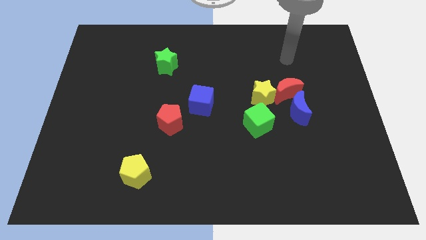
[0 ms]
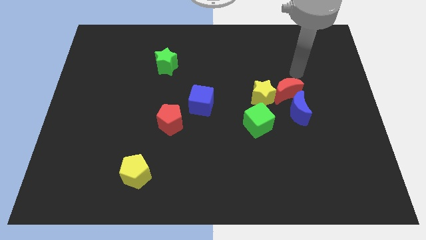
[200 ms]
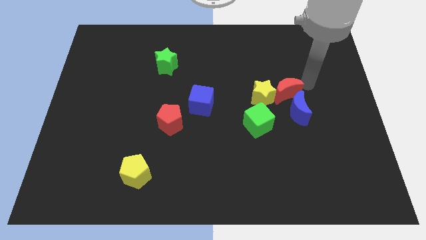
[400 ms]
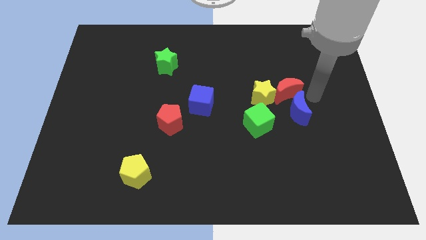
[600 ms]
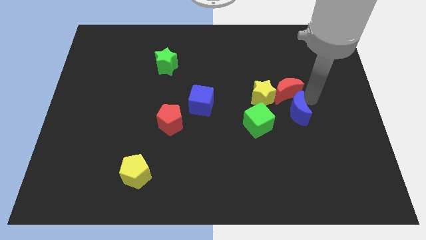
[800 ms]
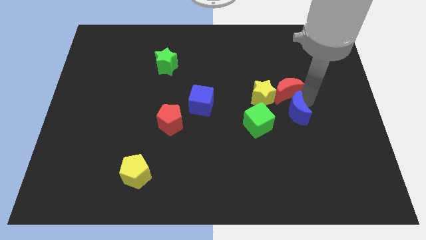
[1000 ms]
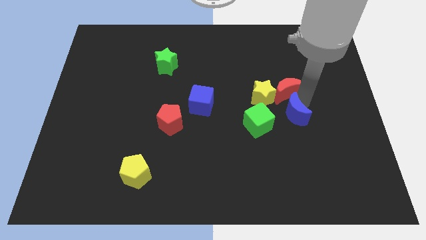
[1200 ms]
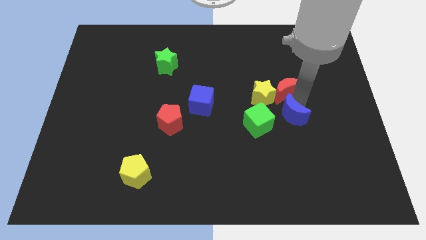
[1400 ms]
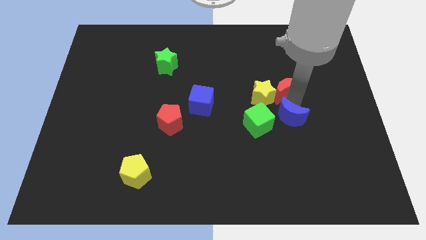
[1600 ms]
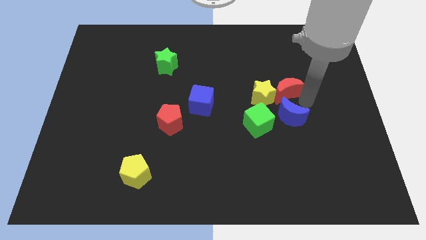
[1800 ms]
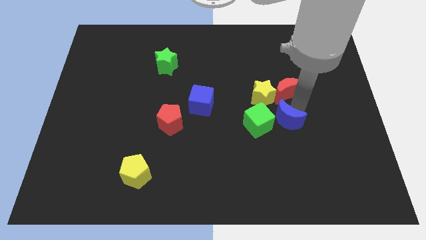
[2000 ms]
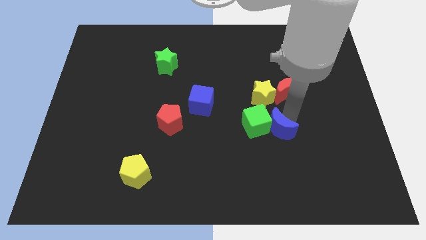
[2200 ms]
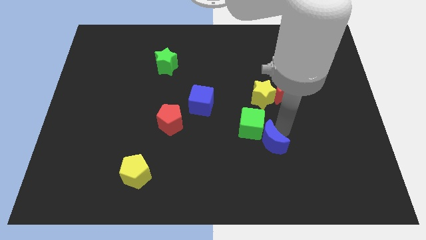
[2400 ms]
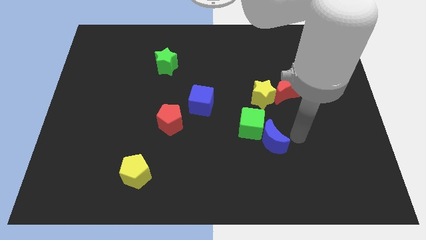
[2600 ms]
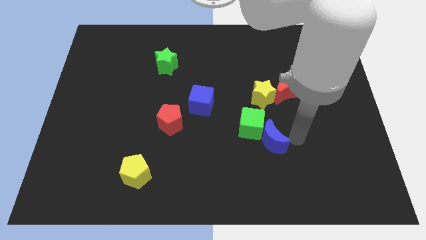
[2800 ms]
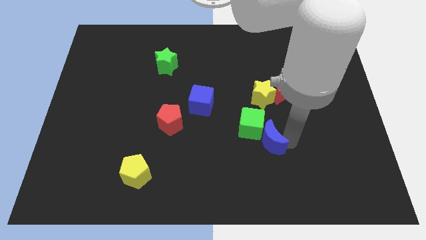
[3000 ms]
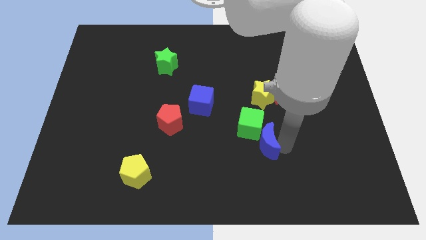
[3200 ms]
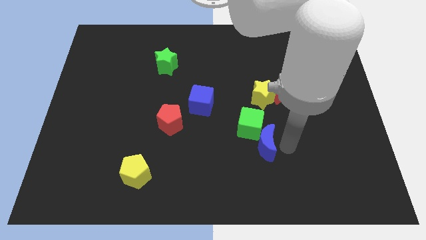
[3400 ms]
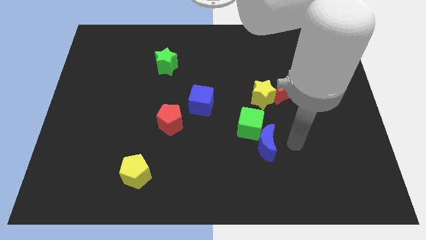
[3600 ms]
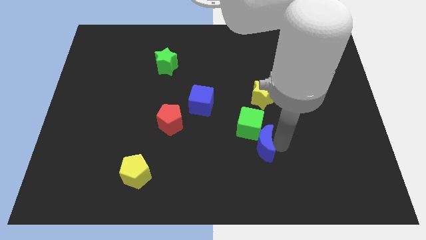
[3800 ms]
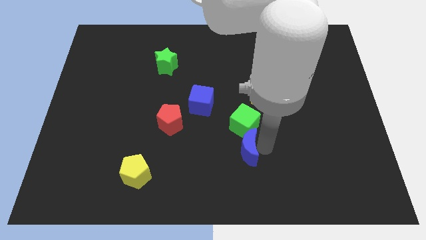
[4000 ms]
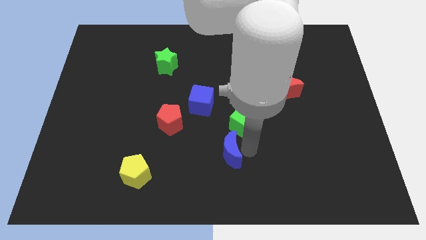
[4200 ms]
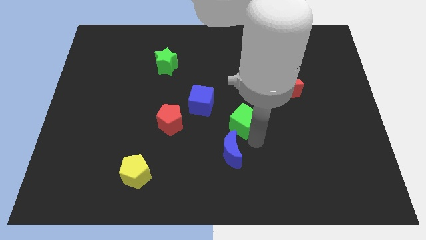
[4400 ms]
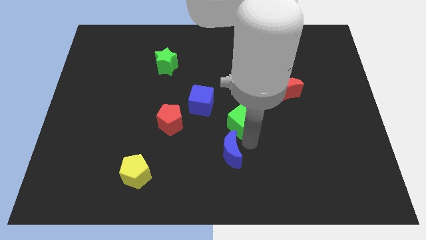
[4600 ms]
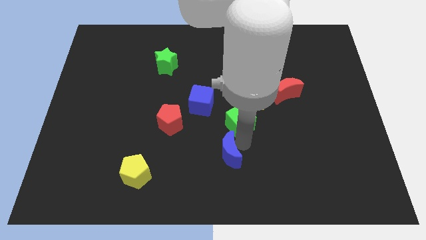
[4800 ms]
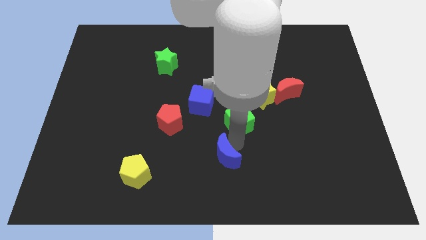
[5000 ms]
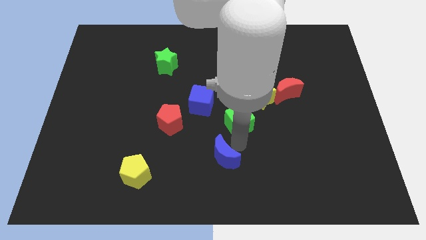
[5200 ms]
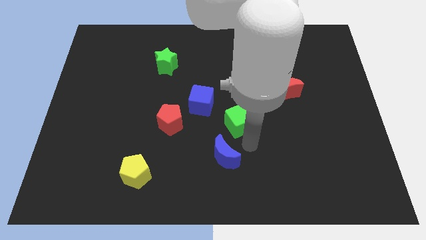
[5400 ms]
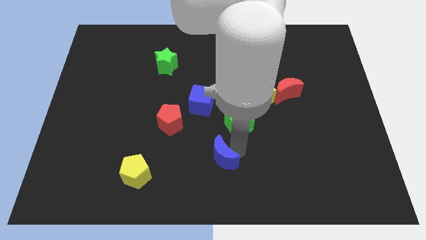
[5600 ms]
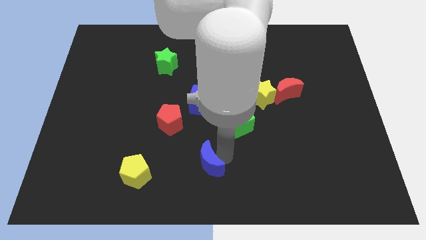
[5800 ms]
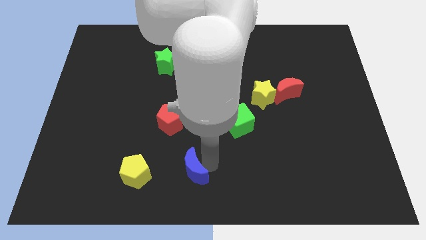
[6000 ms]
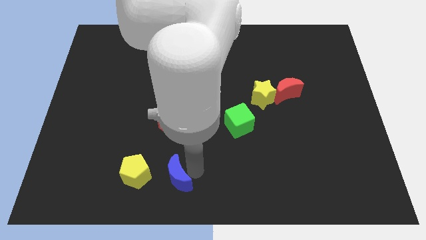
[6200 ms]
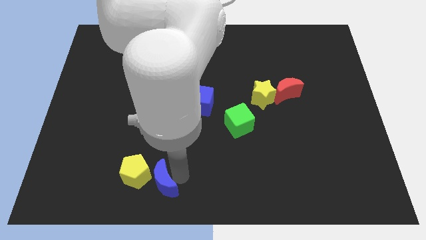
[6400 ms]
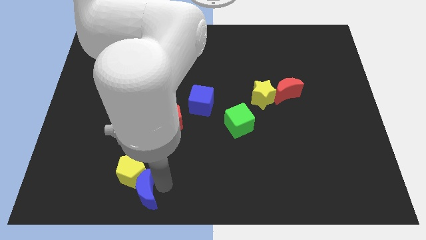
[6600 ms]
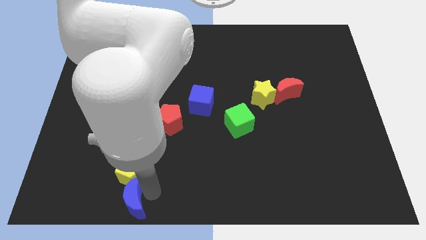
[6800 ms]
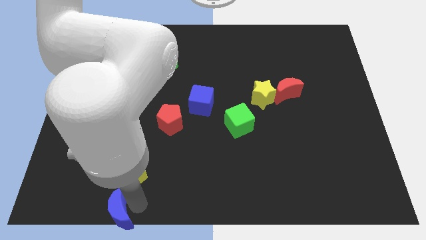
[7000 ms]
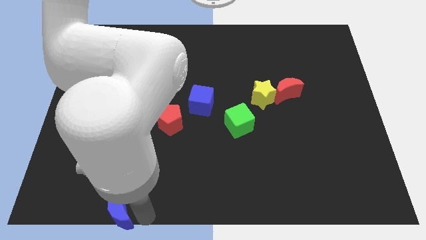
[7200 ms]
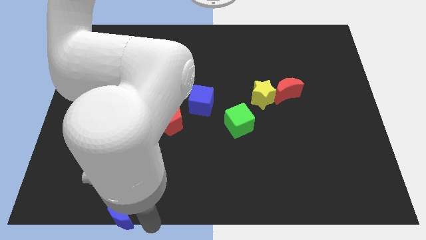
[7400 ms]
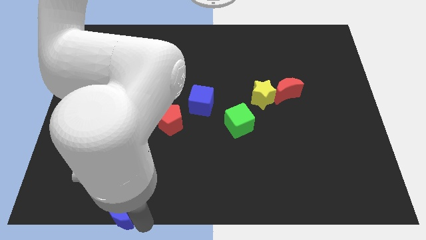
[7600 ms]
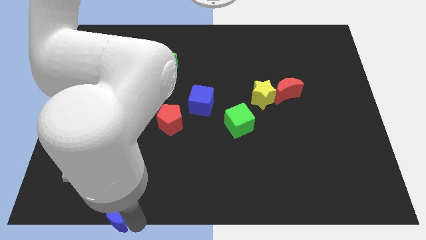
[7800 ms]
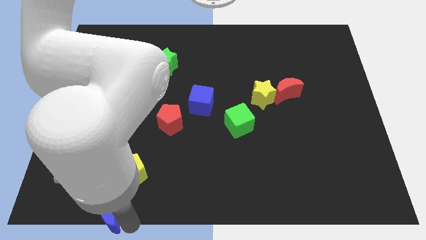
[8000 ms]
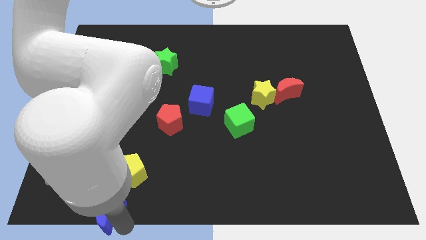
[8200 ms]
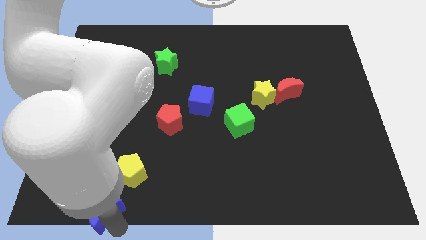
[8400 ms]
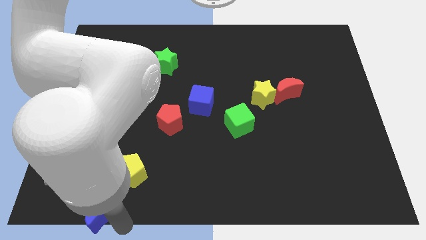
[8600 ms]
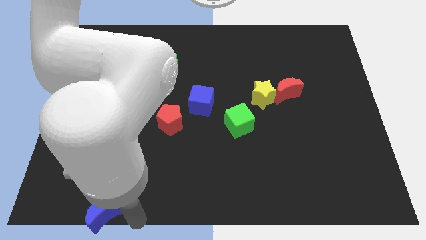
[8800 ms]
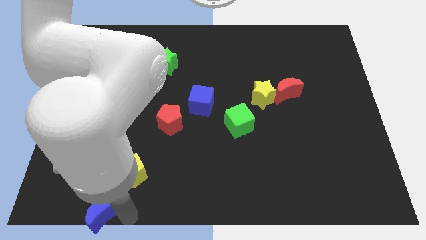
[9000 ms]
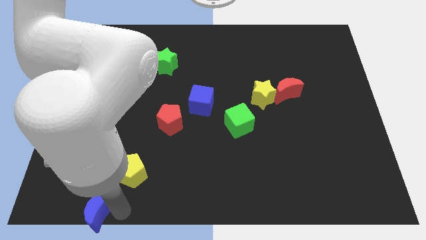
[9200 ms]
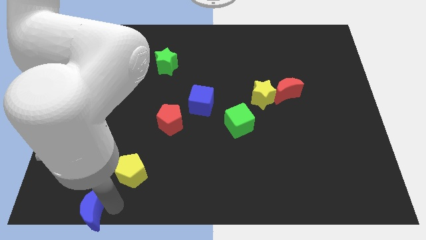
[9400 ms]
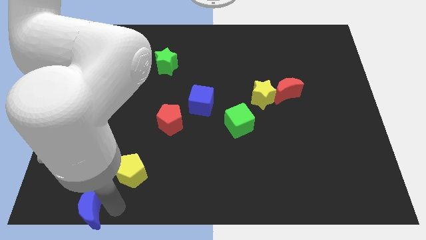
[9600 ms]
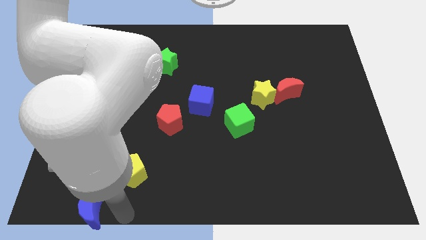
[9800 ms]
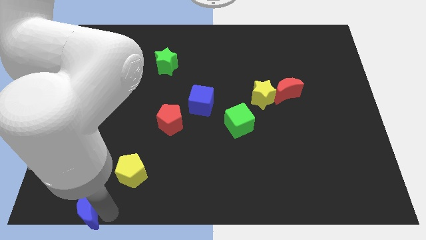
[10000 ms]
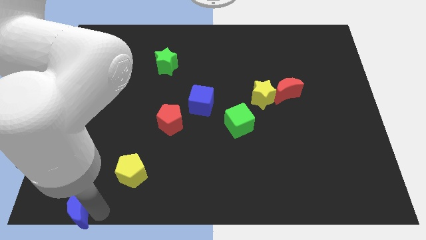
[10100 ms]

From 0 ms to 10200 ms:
slide the blue moon to the bottom left corner

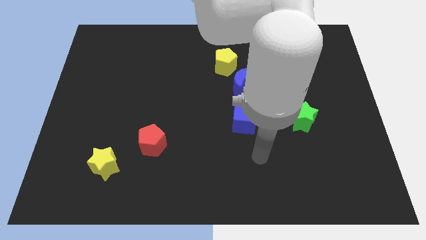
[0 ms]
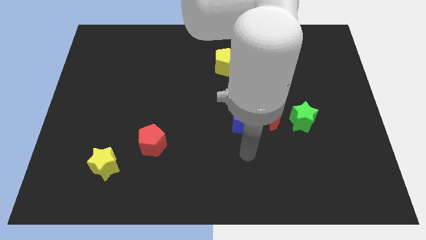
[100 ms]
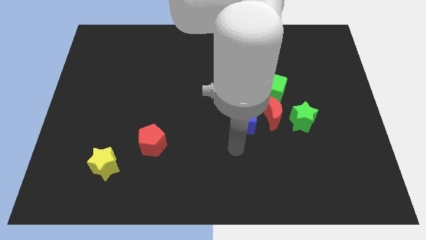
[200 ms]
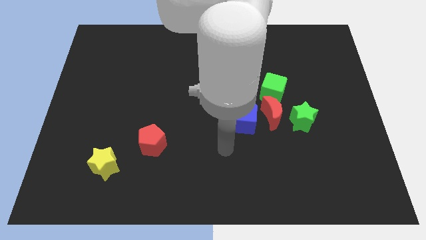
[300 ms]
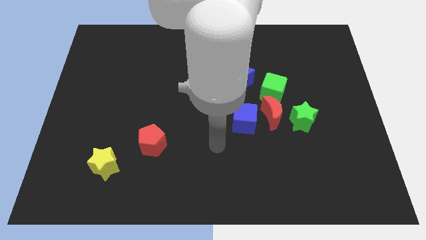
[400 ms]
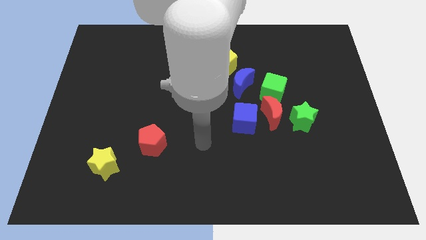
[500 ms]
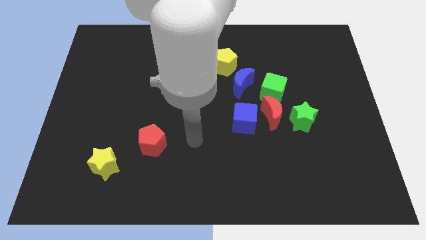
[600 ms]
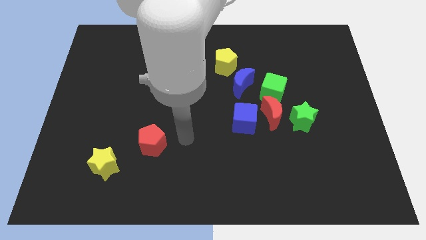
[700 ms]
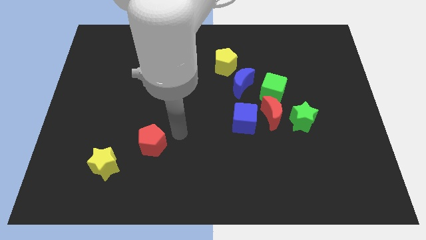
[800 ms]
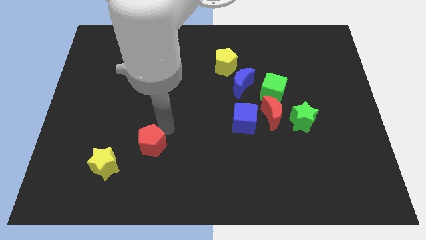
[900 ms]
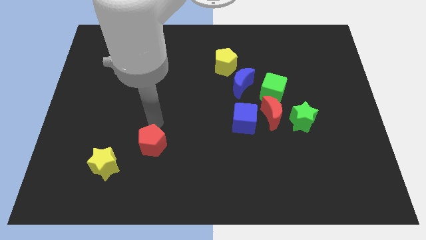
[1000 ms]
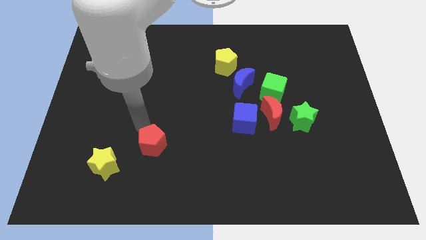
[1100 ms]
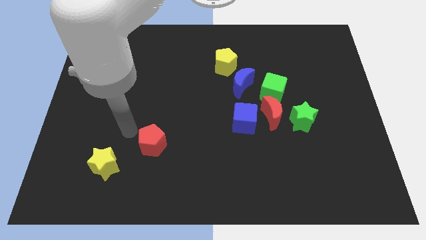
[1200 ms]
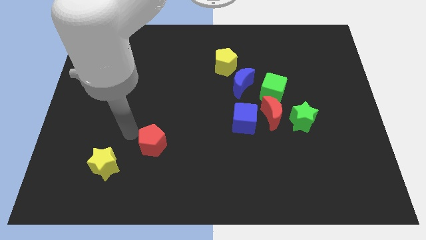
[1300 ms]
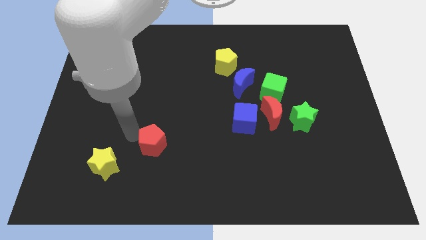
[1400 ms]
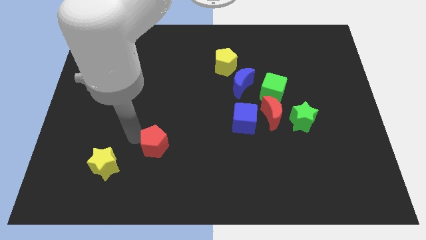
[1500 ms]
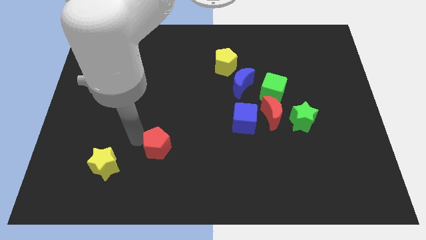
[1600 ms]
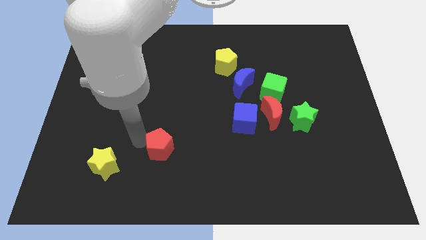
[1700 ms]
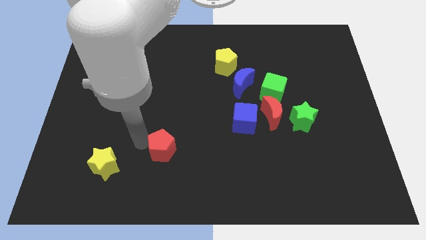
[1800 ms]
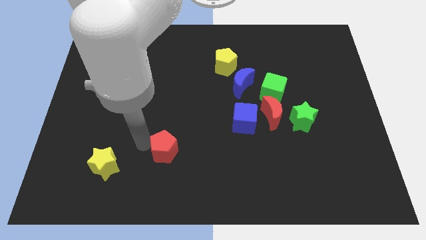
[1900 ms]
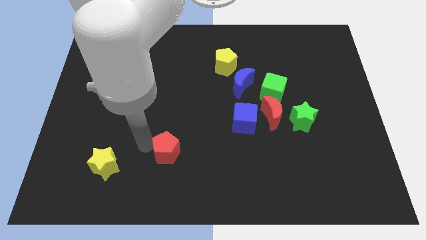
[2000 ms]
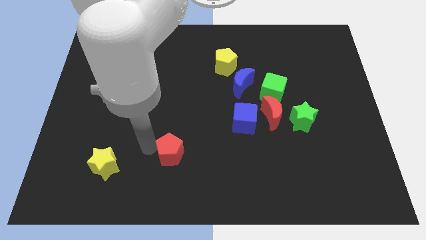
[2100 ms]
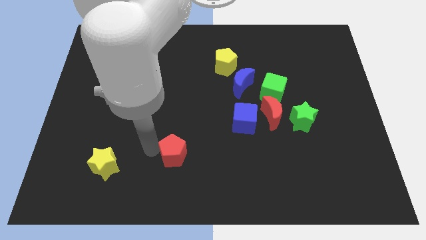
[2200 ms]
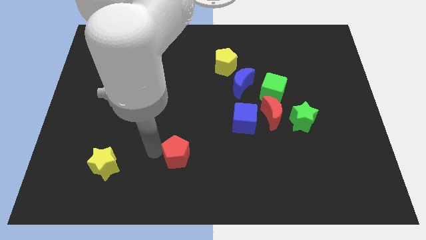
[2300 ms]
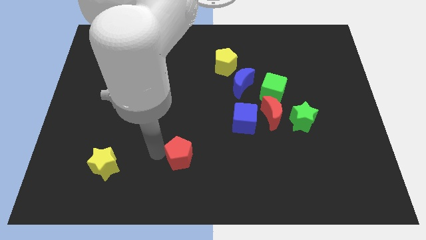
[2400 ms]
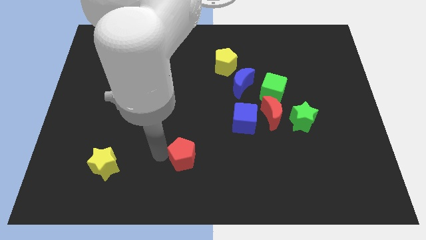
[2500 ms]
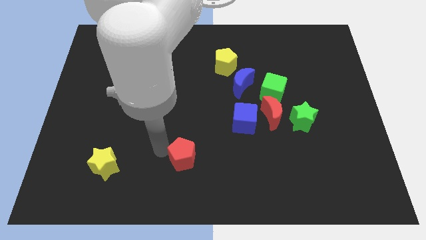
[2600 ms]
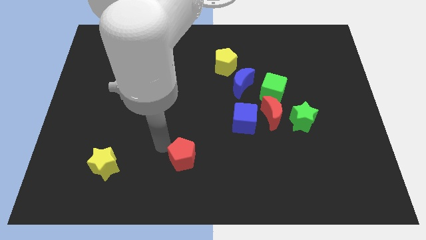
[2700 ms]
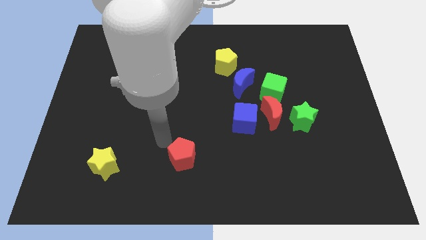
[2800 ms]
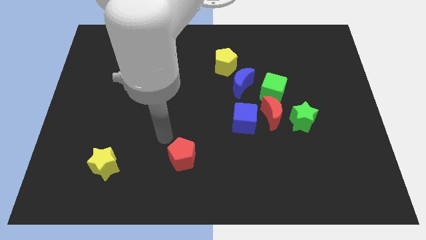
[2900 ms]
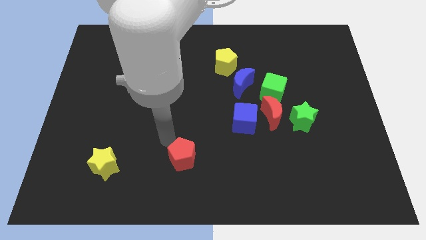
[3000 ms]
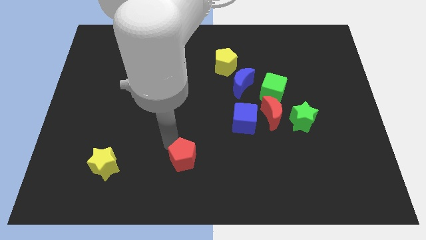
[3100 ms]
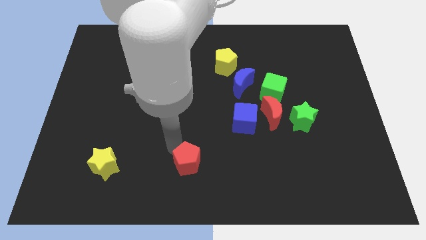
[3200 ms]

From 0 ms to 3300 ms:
move the red pentagon to the bottom
